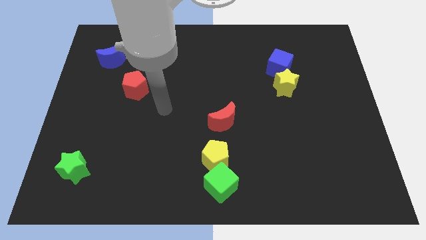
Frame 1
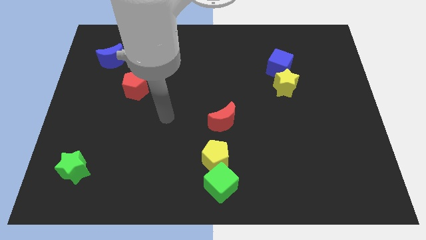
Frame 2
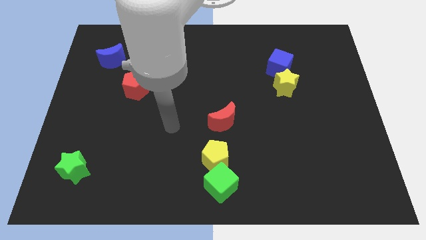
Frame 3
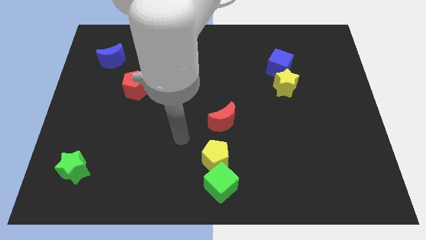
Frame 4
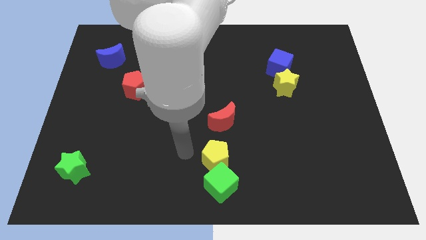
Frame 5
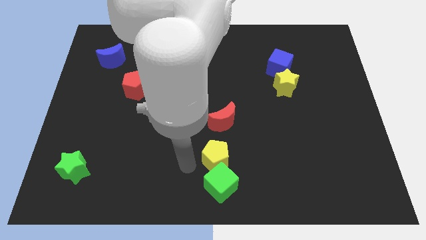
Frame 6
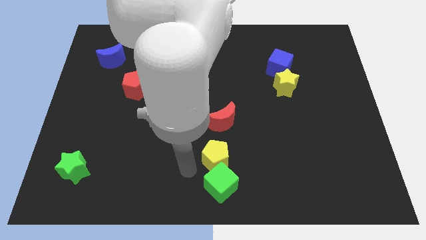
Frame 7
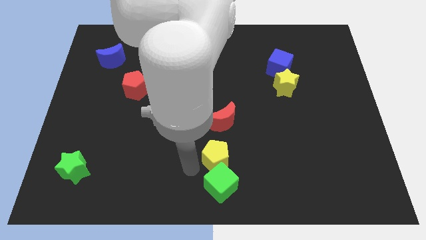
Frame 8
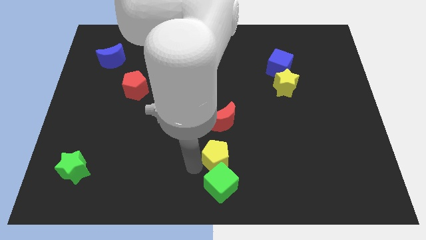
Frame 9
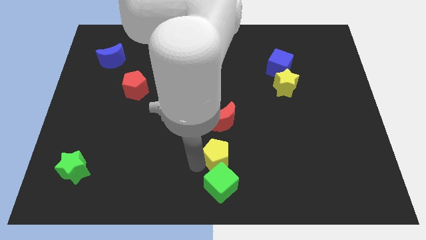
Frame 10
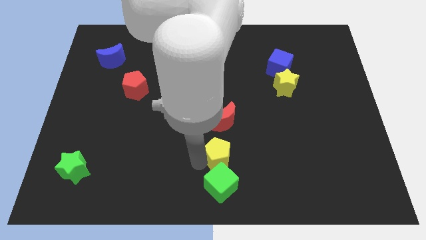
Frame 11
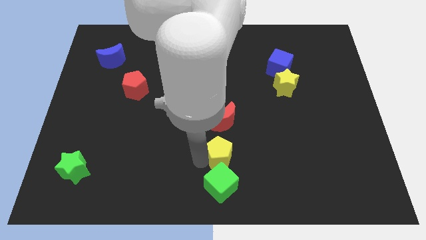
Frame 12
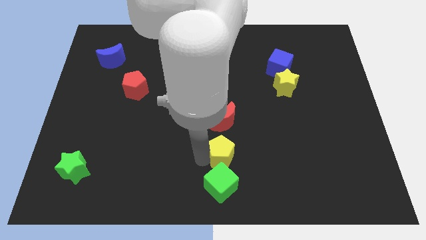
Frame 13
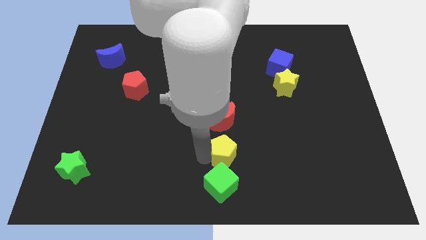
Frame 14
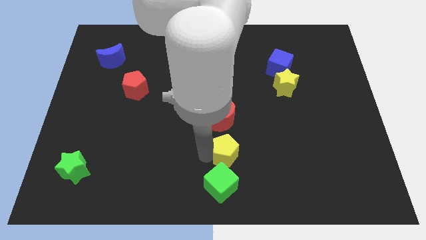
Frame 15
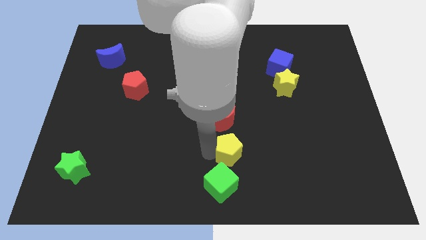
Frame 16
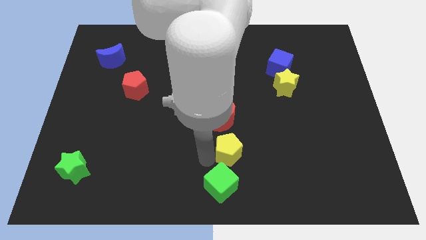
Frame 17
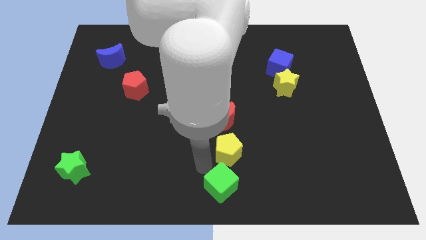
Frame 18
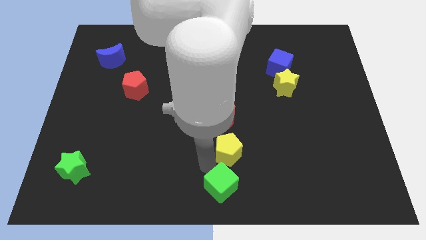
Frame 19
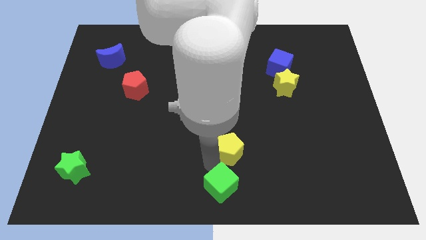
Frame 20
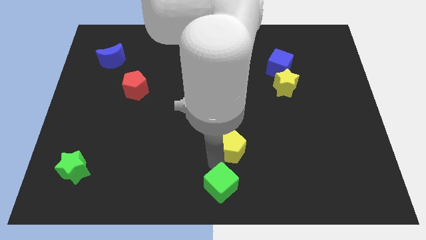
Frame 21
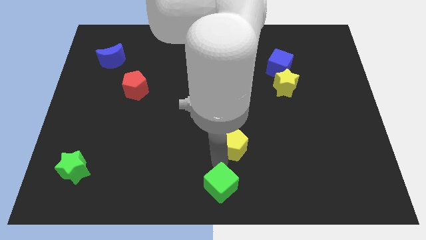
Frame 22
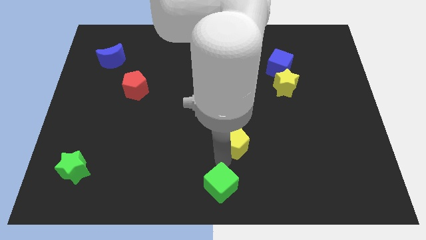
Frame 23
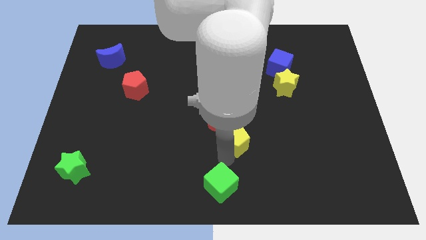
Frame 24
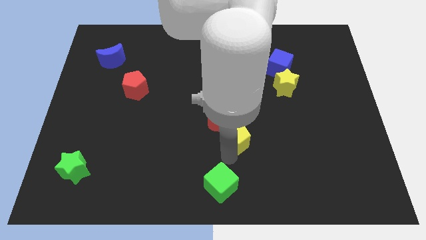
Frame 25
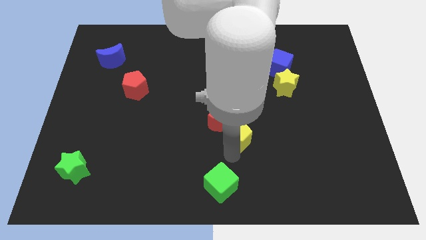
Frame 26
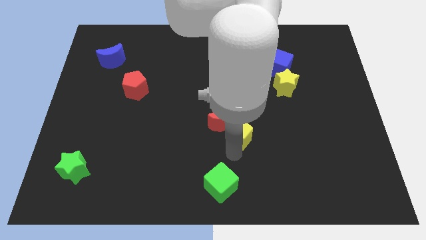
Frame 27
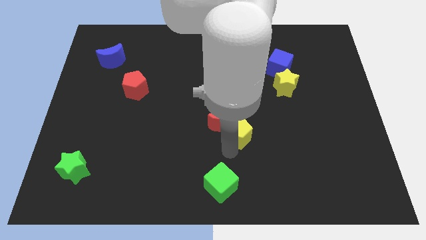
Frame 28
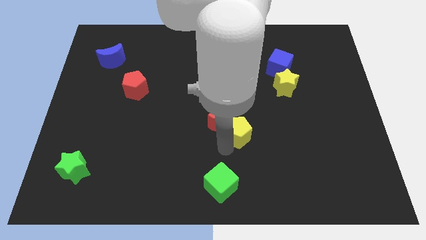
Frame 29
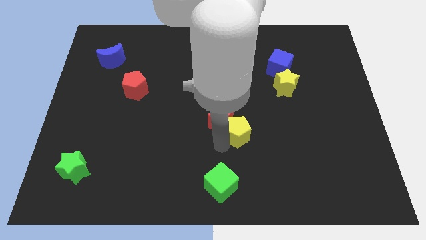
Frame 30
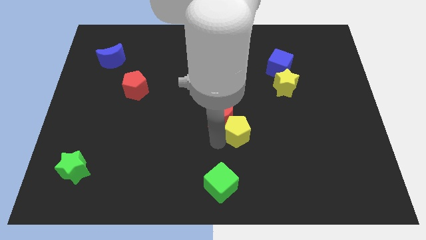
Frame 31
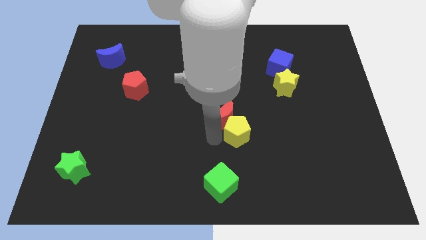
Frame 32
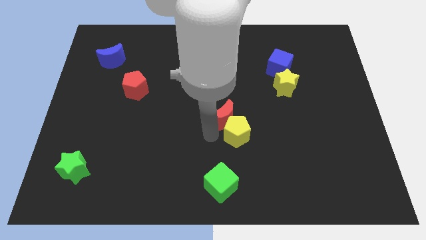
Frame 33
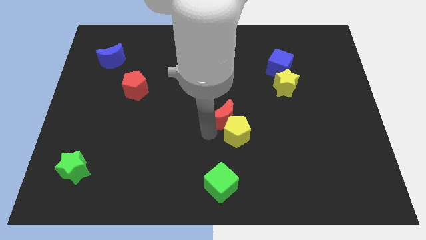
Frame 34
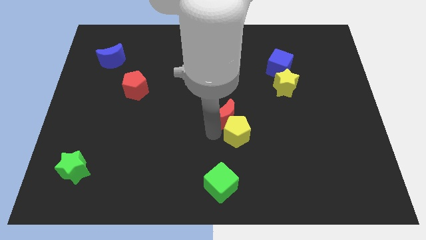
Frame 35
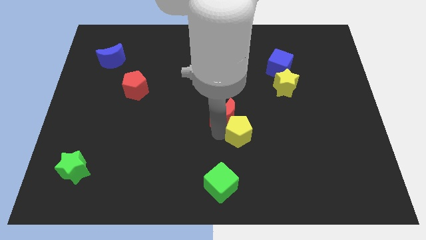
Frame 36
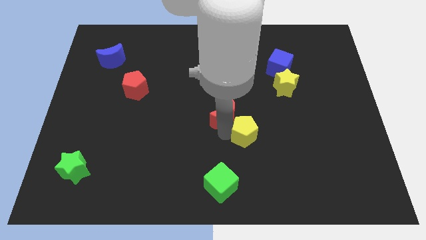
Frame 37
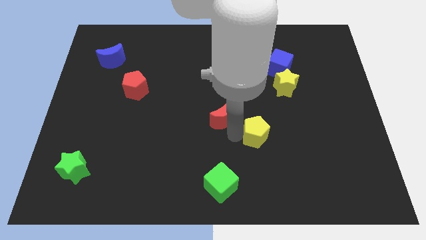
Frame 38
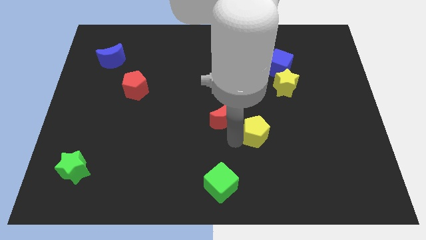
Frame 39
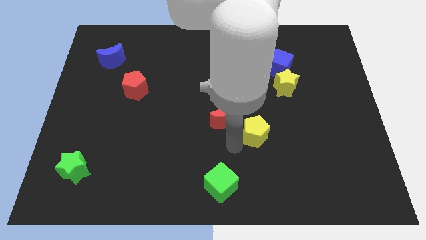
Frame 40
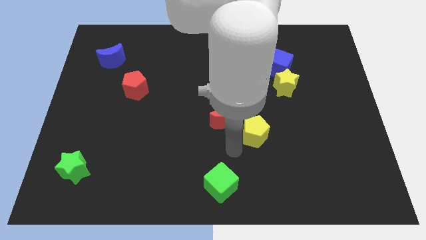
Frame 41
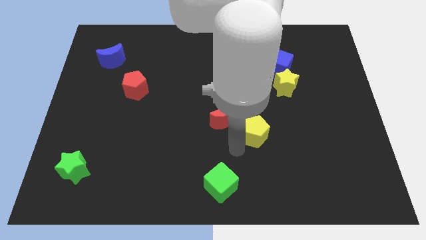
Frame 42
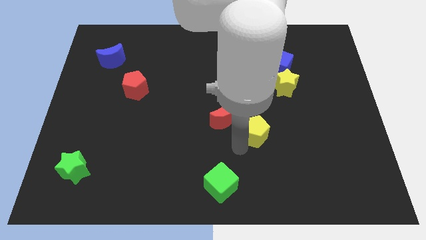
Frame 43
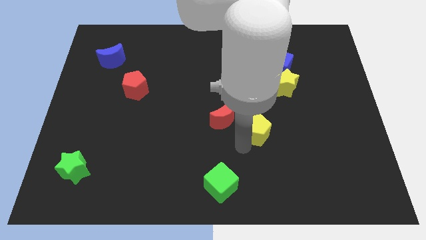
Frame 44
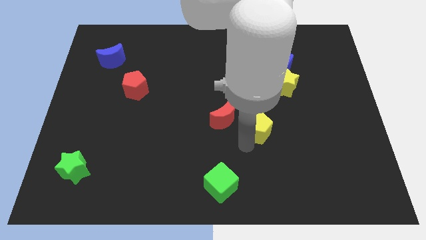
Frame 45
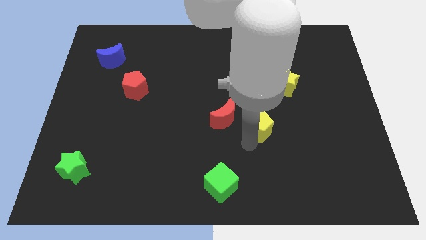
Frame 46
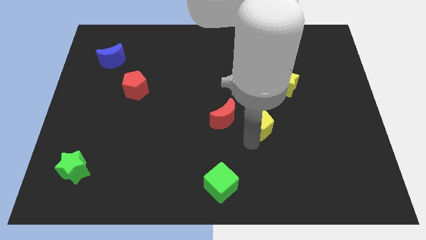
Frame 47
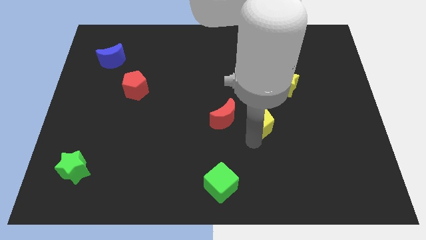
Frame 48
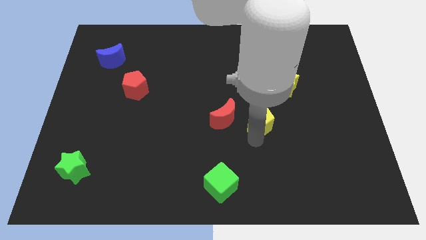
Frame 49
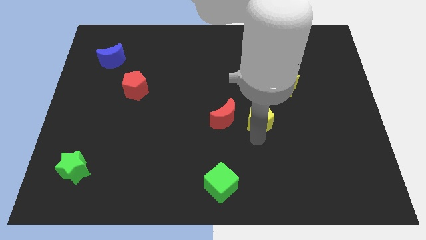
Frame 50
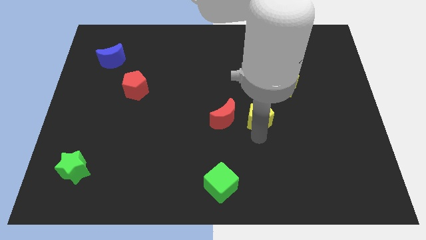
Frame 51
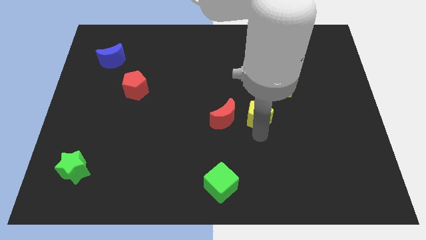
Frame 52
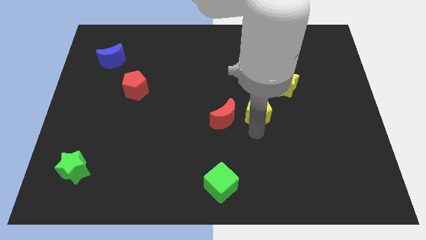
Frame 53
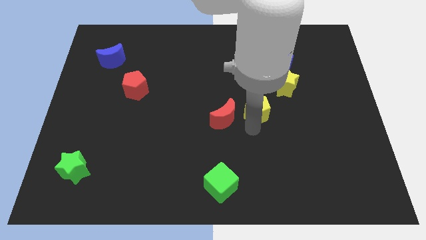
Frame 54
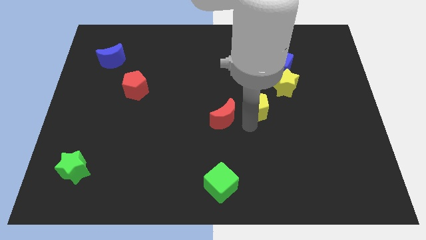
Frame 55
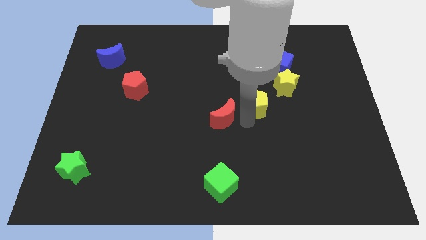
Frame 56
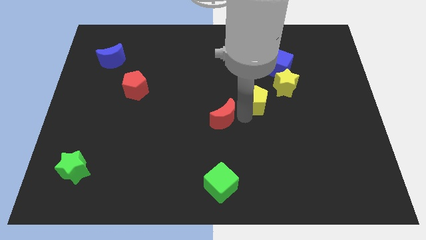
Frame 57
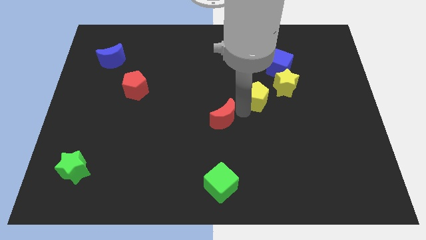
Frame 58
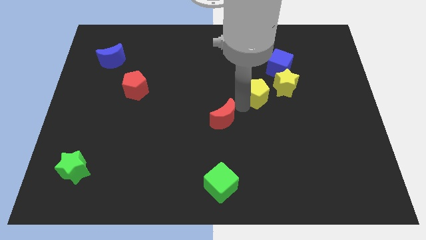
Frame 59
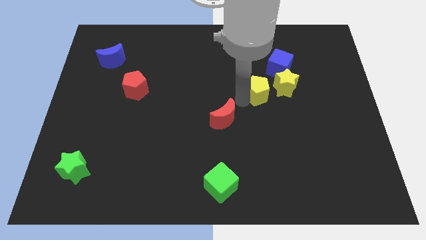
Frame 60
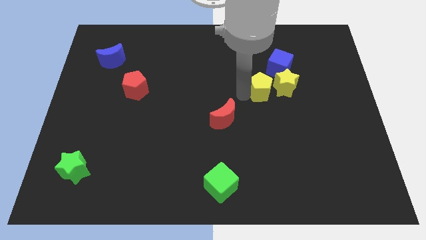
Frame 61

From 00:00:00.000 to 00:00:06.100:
move the yellow pentagon up and right diagonally

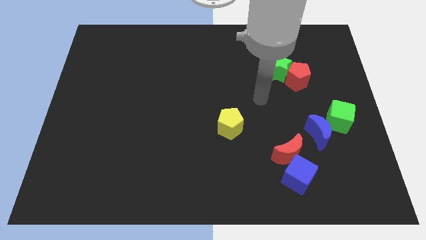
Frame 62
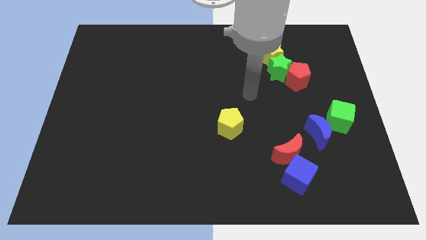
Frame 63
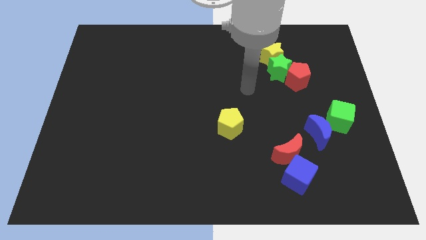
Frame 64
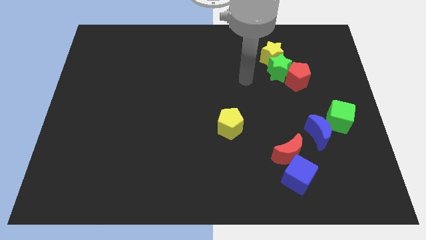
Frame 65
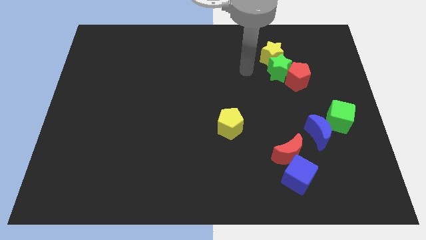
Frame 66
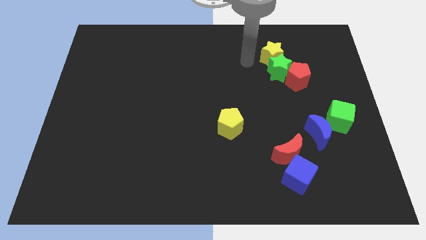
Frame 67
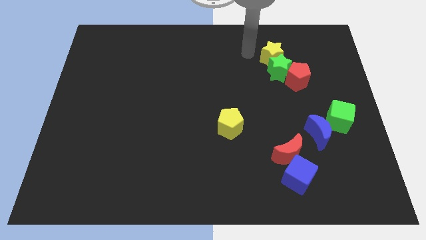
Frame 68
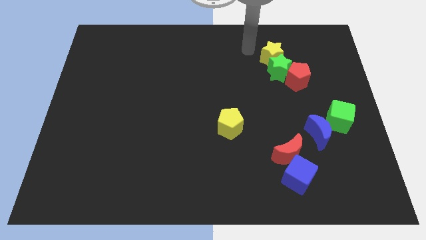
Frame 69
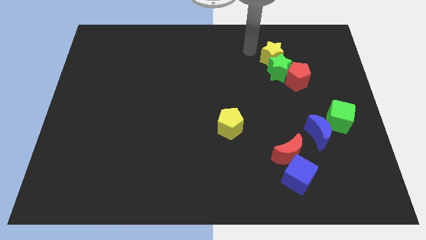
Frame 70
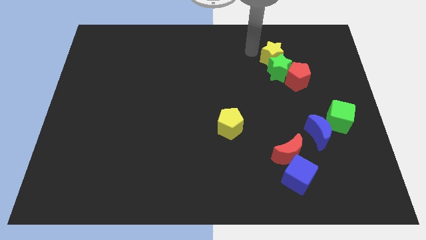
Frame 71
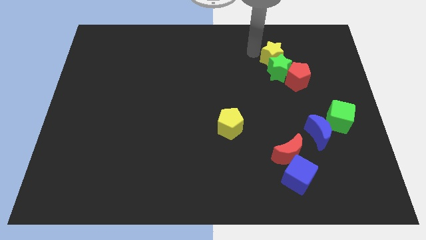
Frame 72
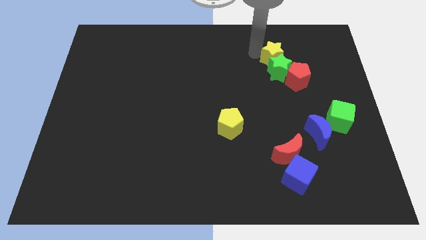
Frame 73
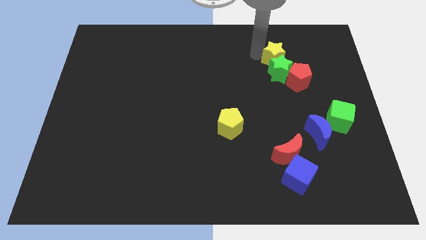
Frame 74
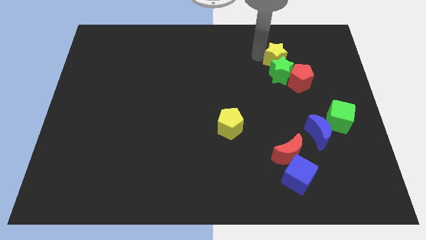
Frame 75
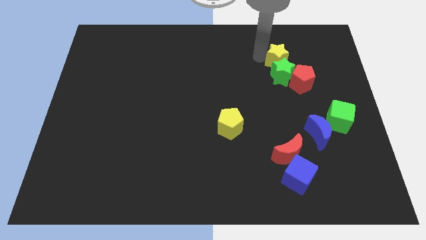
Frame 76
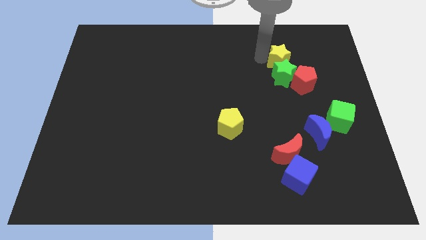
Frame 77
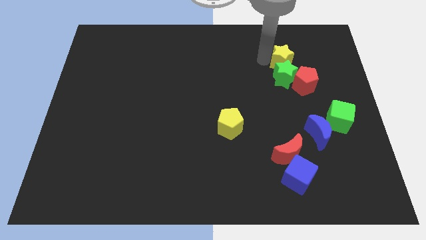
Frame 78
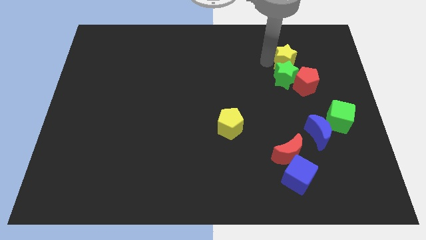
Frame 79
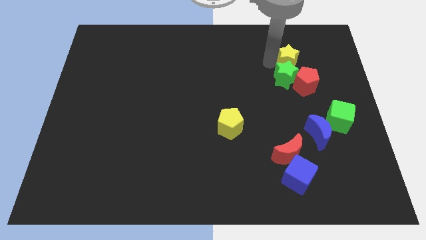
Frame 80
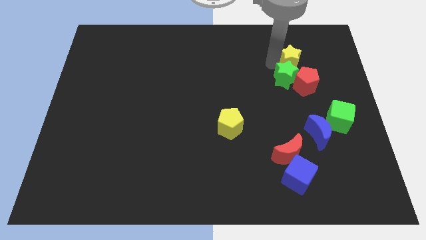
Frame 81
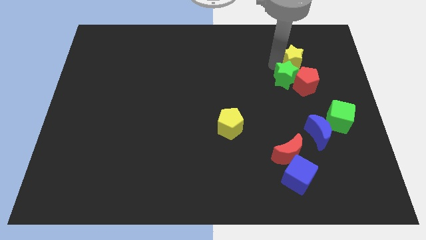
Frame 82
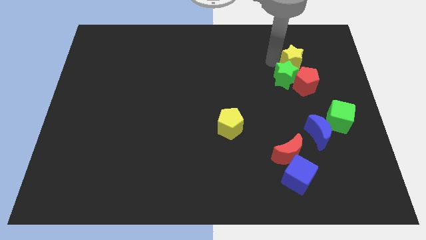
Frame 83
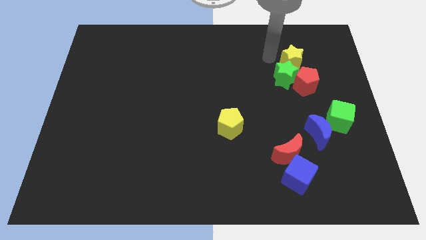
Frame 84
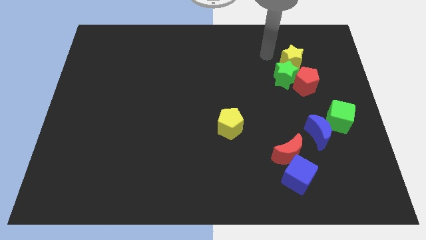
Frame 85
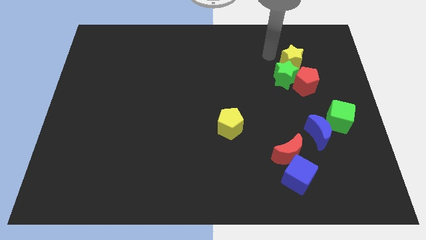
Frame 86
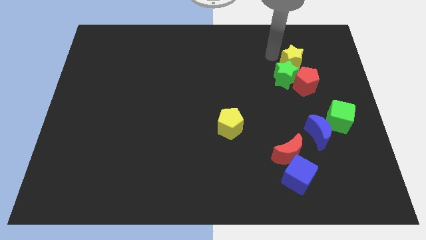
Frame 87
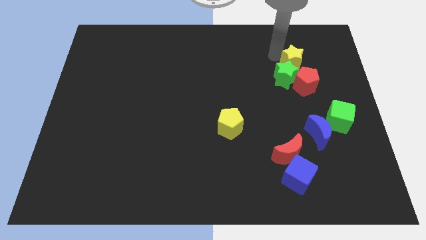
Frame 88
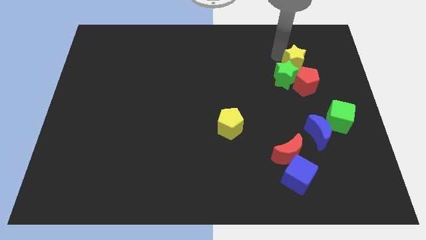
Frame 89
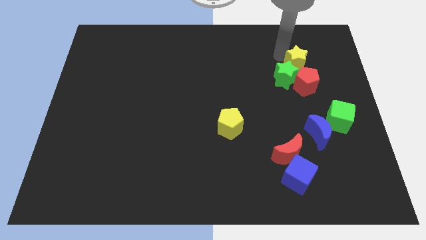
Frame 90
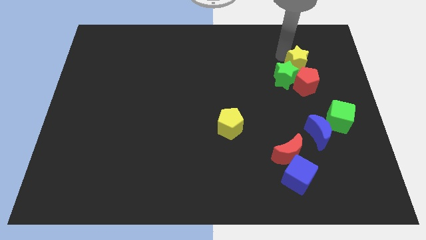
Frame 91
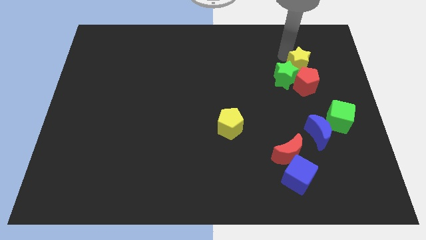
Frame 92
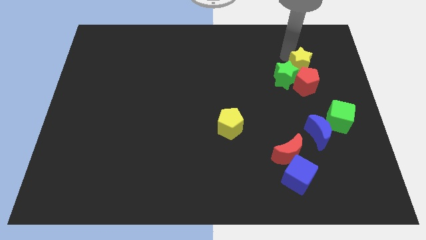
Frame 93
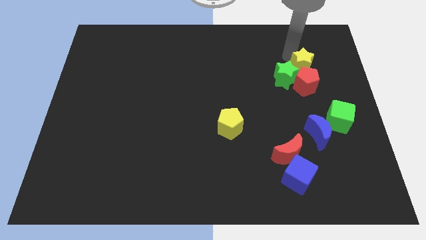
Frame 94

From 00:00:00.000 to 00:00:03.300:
push the yellow star slightly down and to the right diagonally
